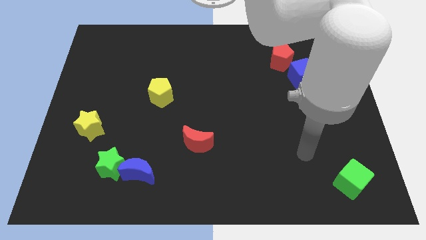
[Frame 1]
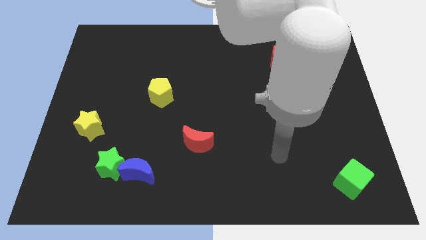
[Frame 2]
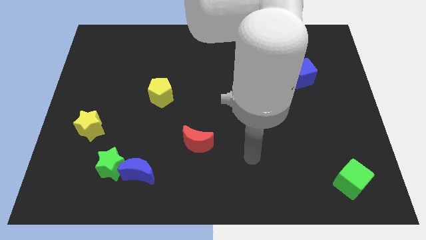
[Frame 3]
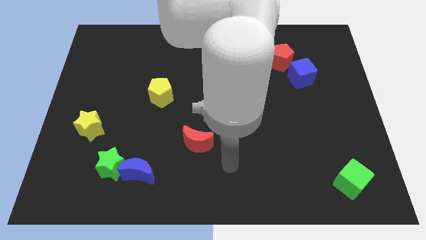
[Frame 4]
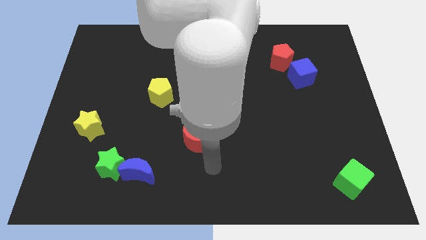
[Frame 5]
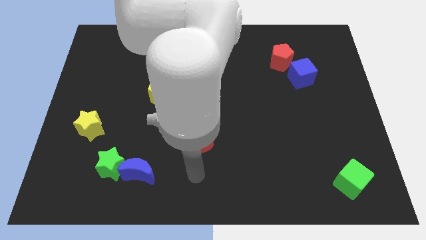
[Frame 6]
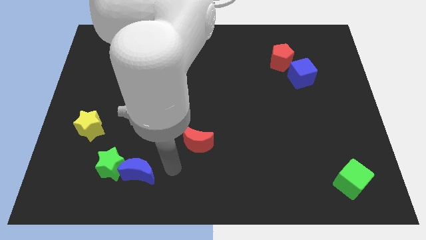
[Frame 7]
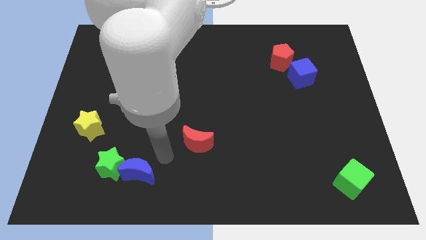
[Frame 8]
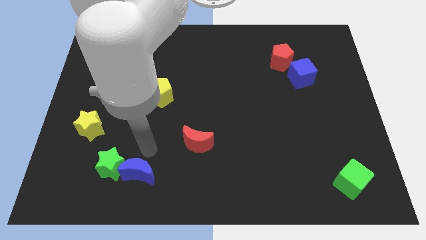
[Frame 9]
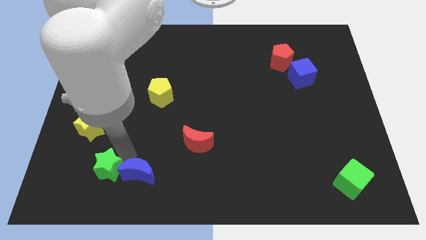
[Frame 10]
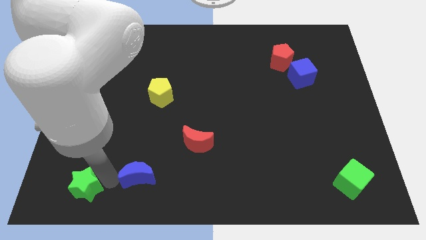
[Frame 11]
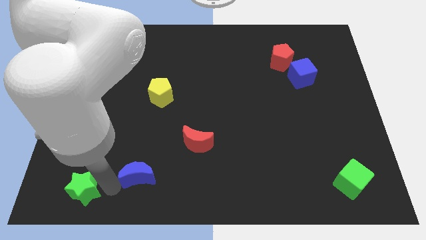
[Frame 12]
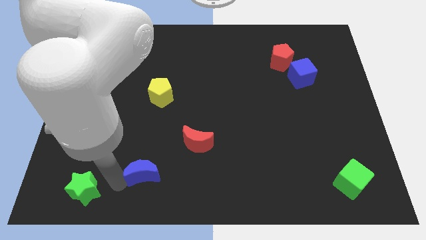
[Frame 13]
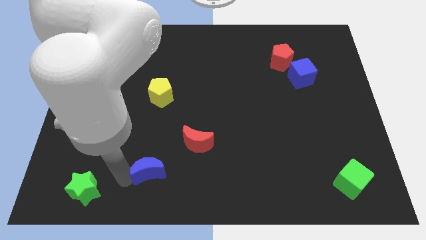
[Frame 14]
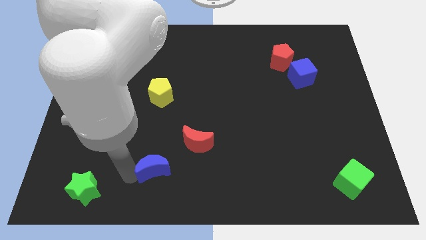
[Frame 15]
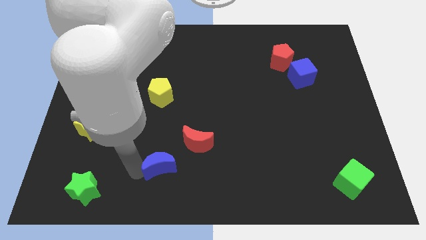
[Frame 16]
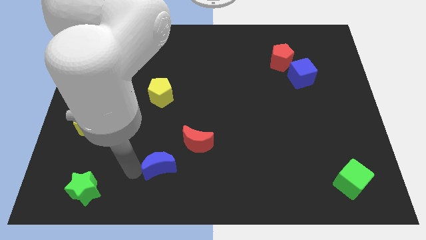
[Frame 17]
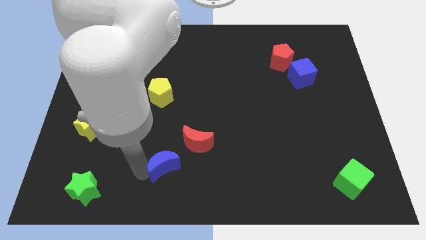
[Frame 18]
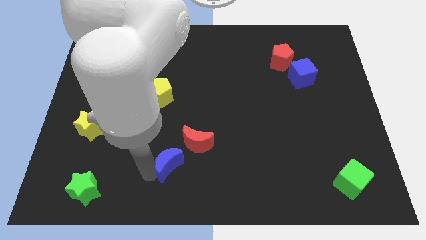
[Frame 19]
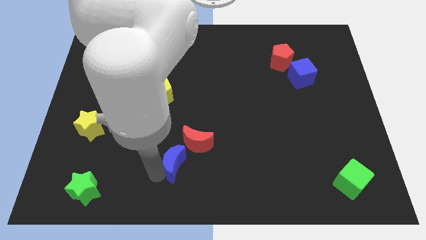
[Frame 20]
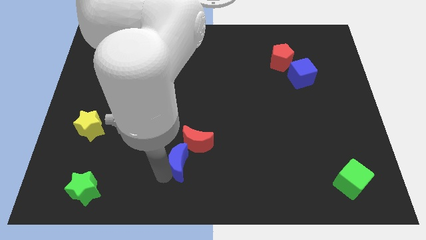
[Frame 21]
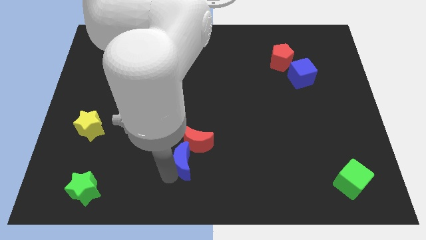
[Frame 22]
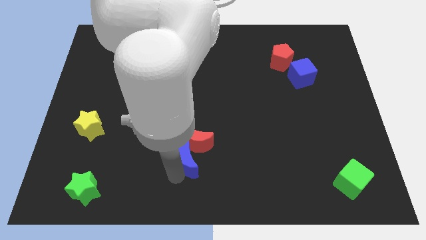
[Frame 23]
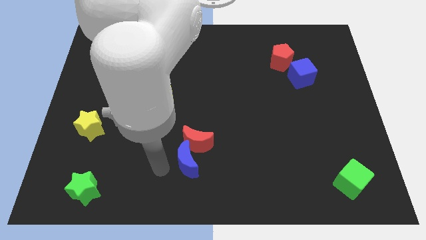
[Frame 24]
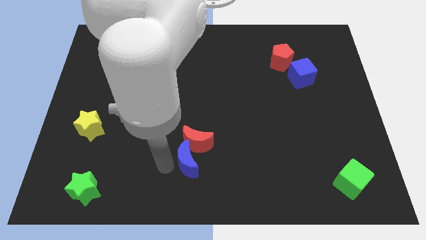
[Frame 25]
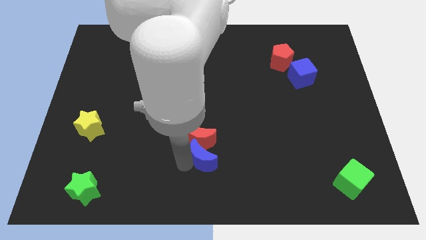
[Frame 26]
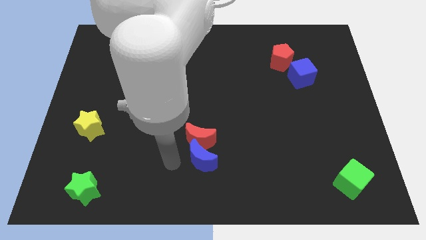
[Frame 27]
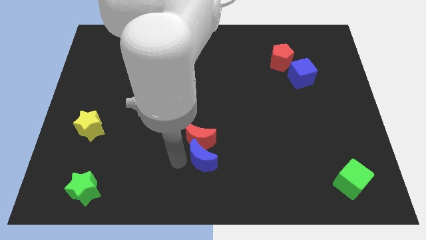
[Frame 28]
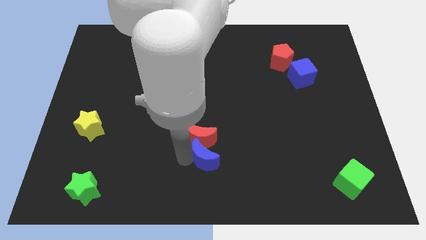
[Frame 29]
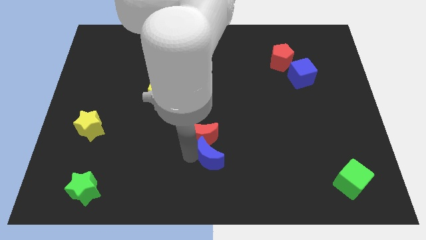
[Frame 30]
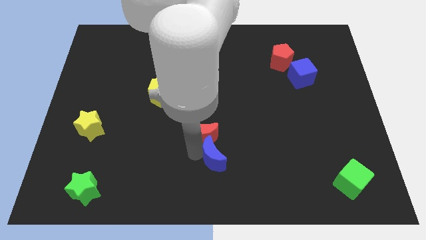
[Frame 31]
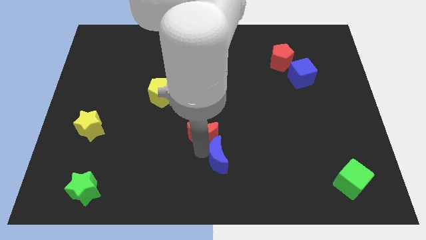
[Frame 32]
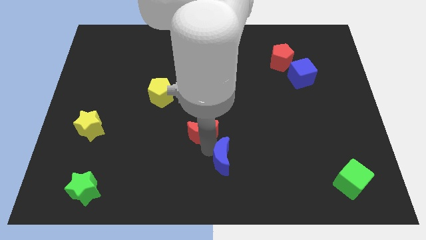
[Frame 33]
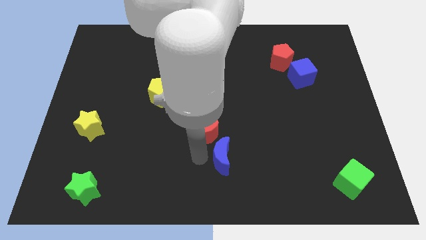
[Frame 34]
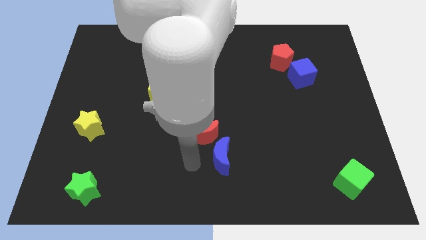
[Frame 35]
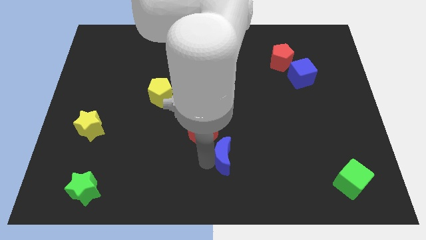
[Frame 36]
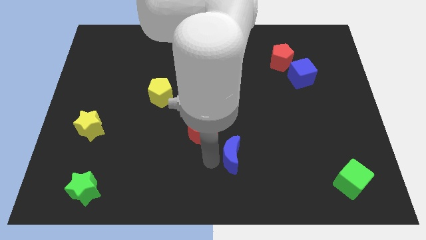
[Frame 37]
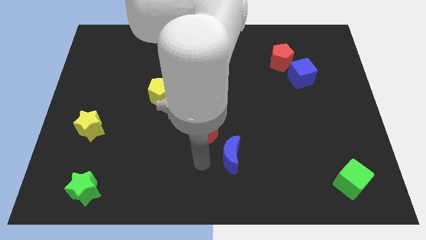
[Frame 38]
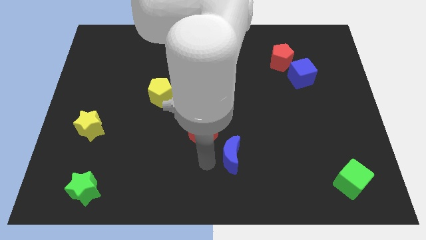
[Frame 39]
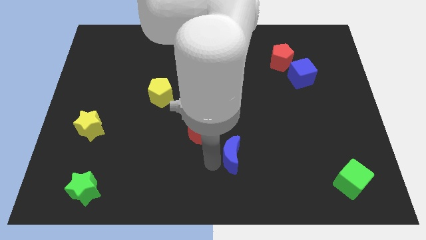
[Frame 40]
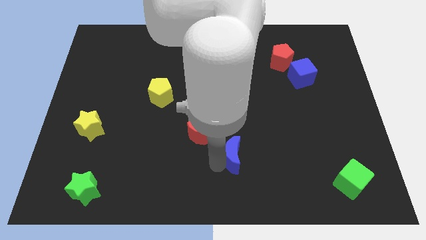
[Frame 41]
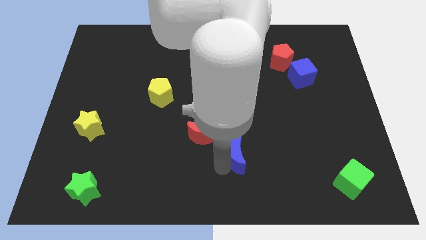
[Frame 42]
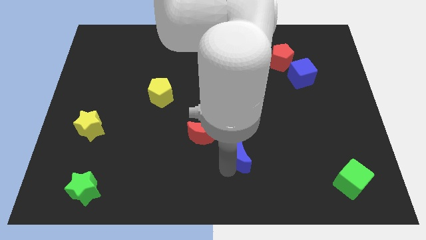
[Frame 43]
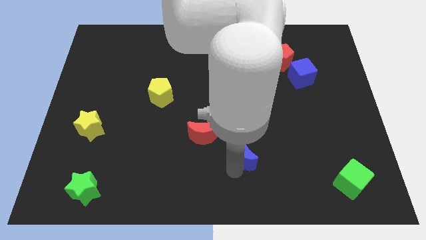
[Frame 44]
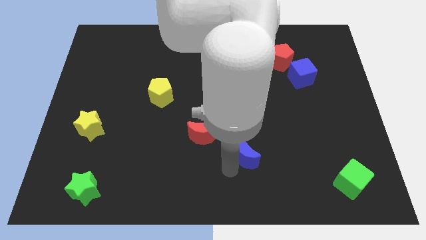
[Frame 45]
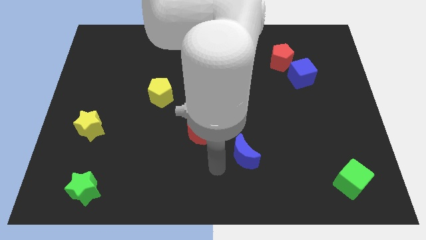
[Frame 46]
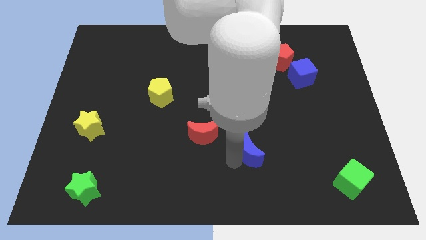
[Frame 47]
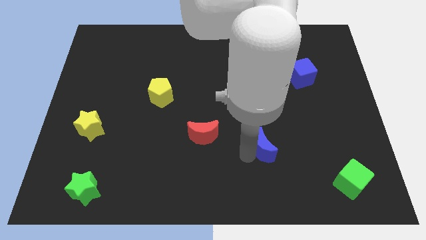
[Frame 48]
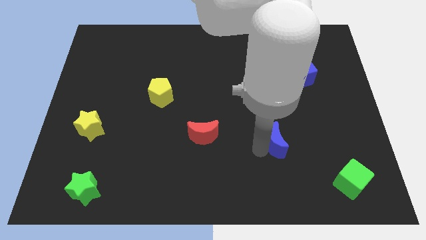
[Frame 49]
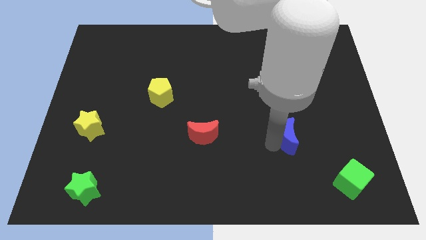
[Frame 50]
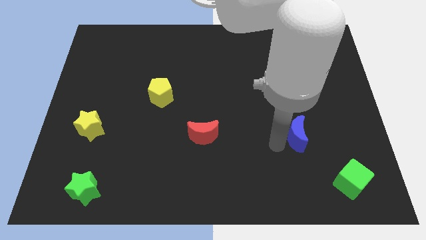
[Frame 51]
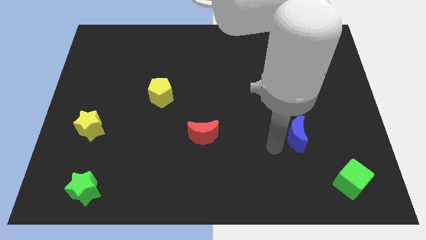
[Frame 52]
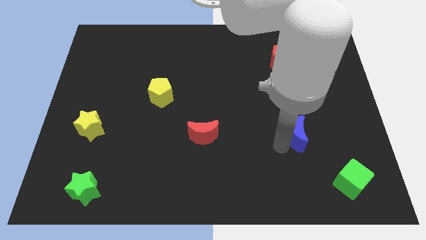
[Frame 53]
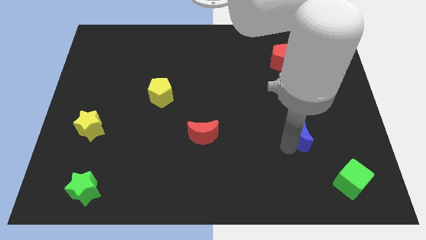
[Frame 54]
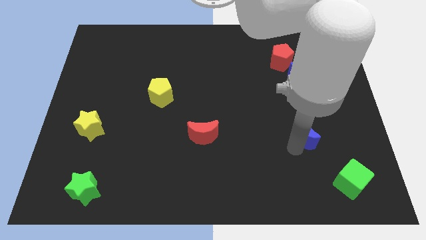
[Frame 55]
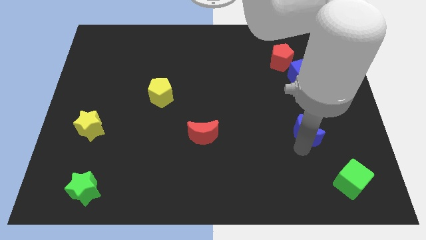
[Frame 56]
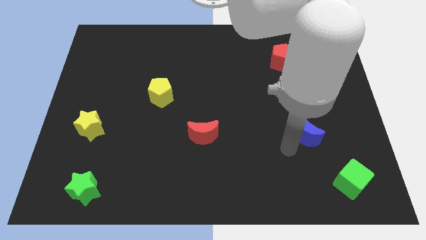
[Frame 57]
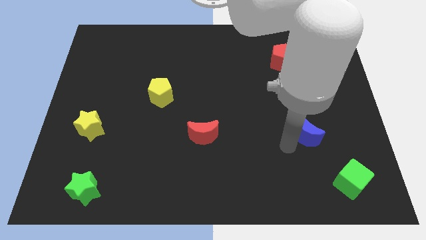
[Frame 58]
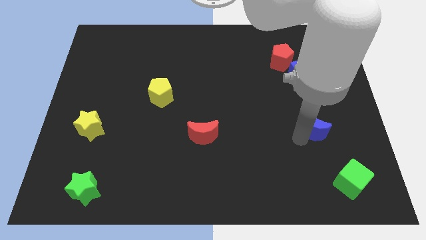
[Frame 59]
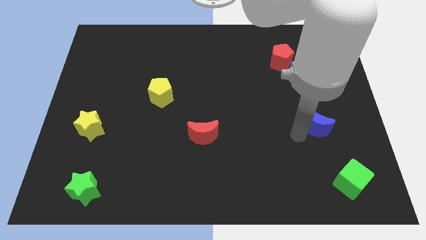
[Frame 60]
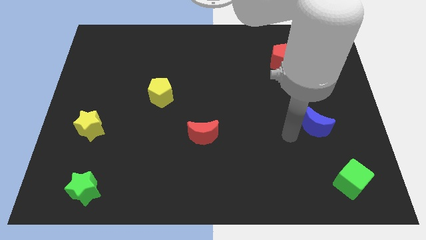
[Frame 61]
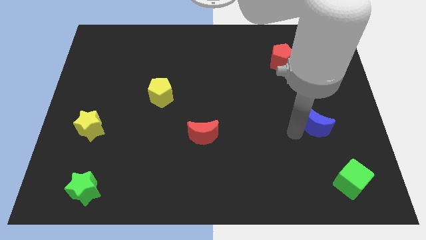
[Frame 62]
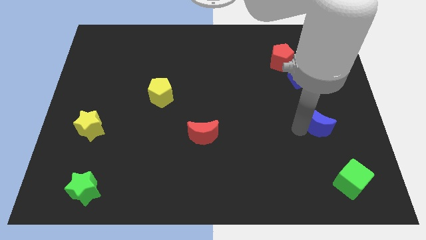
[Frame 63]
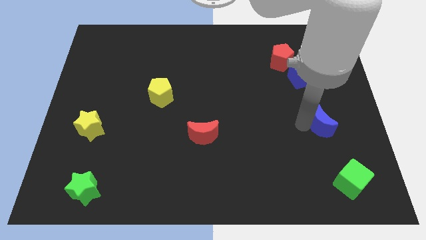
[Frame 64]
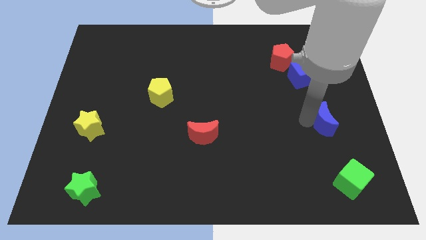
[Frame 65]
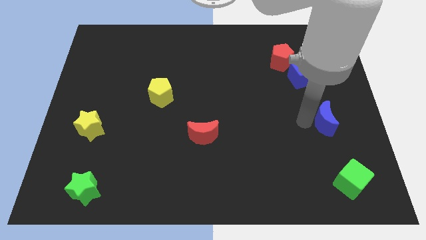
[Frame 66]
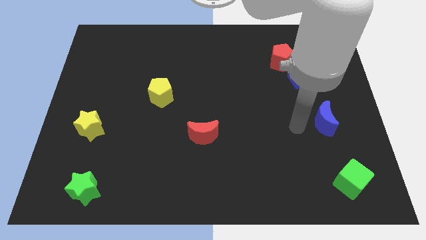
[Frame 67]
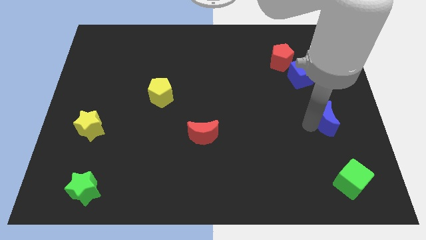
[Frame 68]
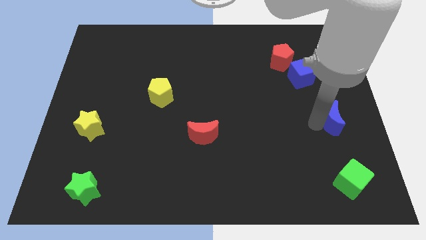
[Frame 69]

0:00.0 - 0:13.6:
move the blue moon to the right side
